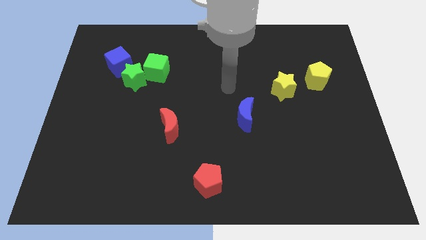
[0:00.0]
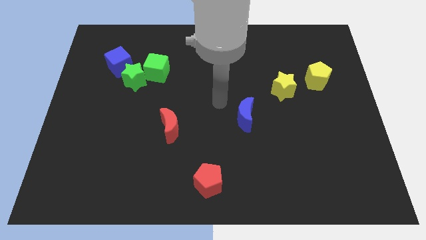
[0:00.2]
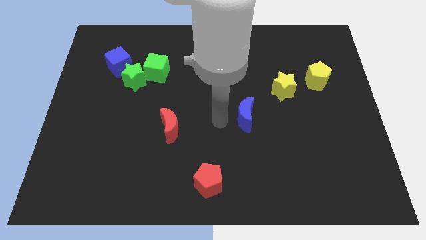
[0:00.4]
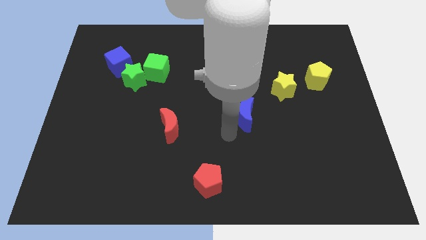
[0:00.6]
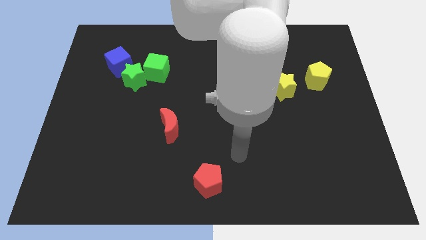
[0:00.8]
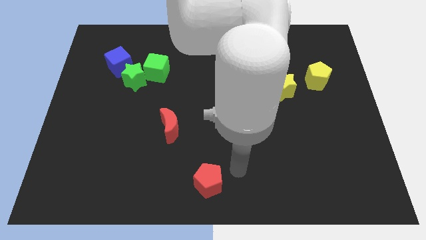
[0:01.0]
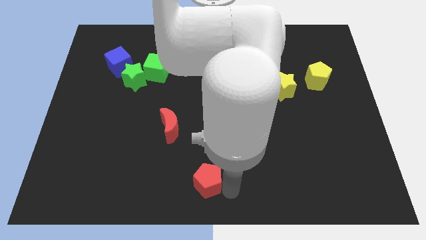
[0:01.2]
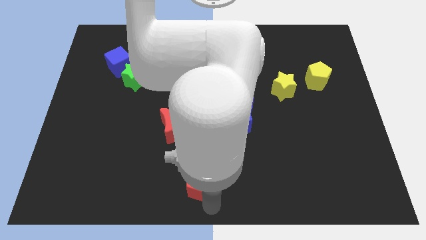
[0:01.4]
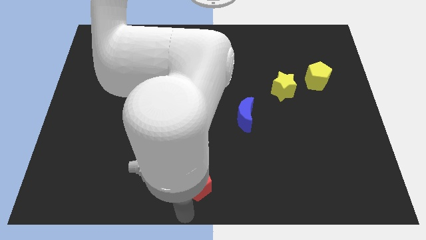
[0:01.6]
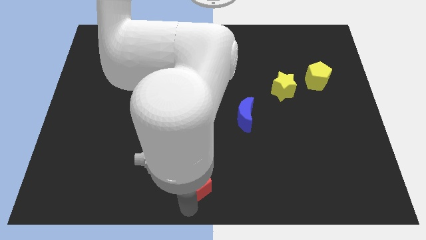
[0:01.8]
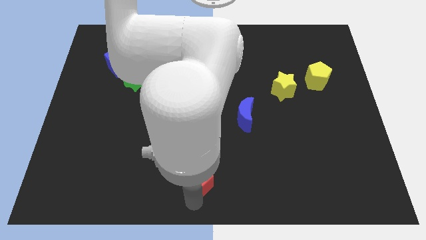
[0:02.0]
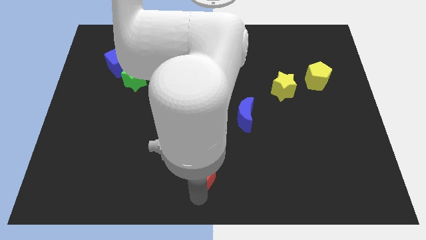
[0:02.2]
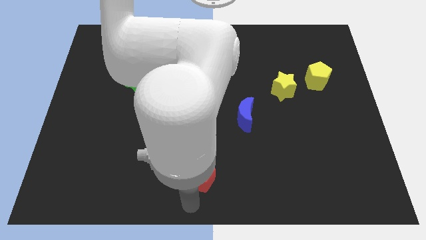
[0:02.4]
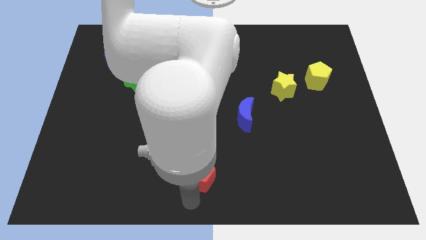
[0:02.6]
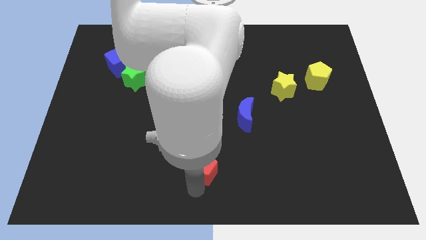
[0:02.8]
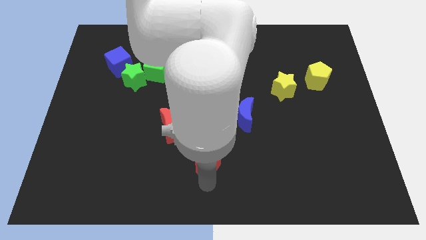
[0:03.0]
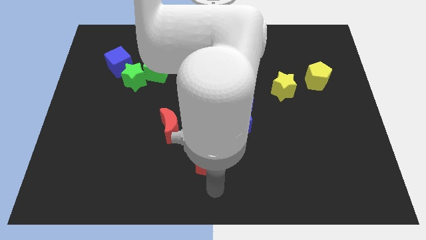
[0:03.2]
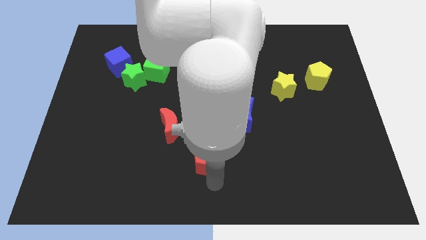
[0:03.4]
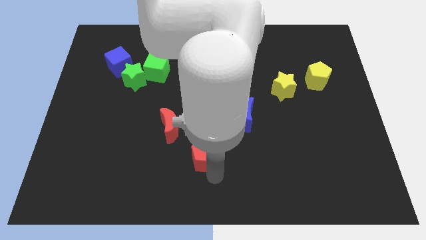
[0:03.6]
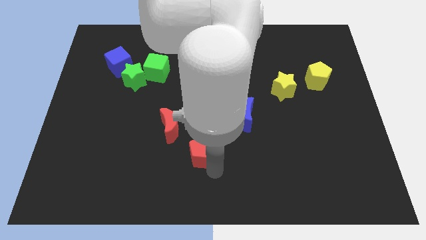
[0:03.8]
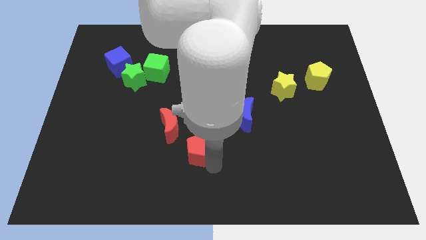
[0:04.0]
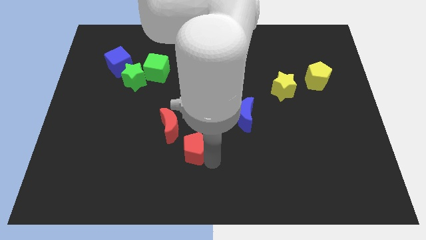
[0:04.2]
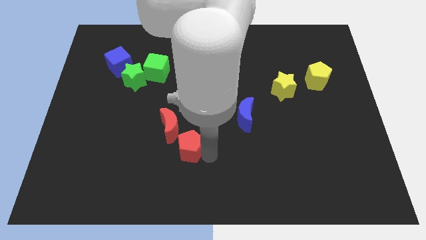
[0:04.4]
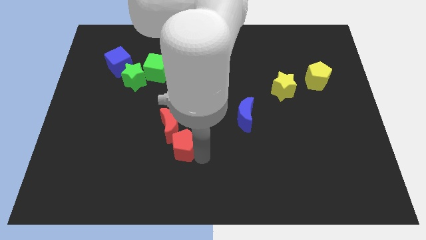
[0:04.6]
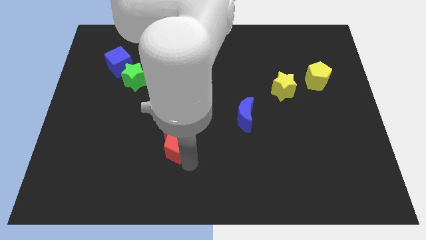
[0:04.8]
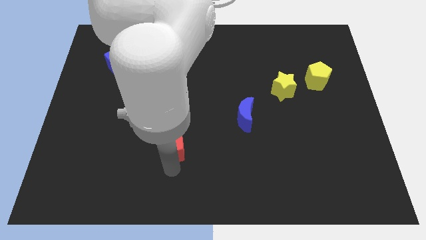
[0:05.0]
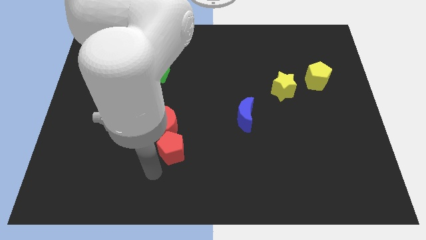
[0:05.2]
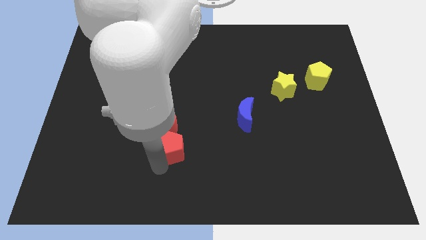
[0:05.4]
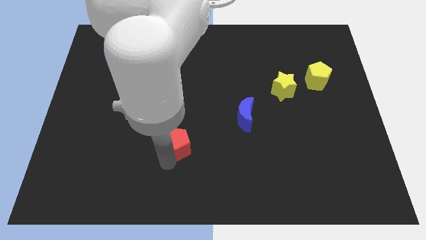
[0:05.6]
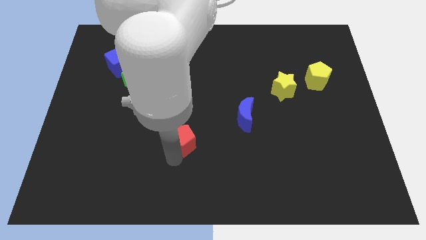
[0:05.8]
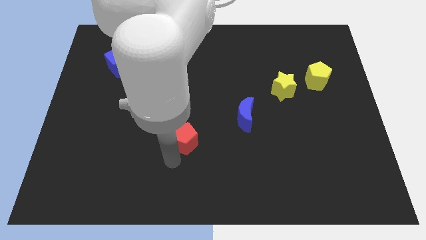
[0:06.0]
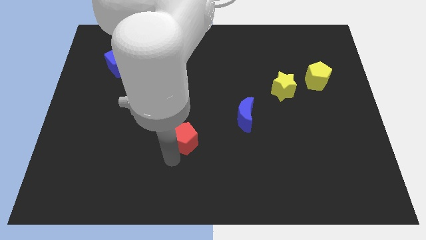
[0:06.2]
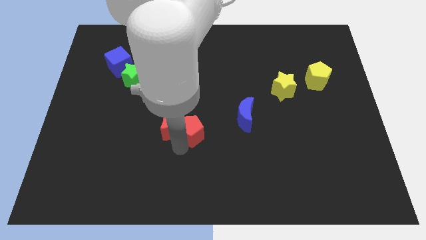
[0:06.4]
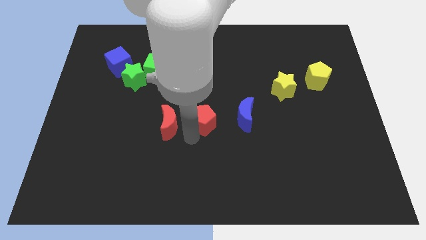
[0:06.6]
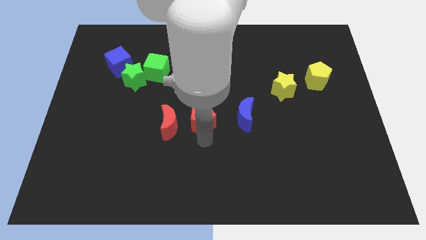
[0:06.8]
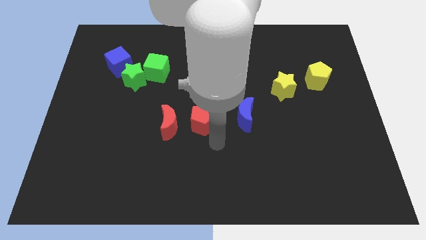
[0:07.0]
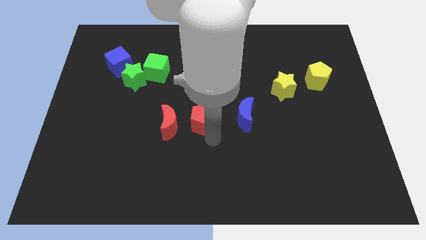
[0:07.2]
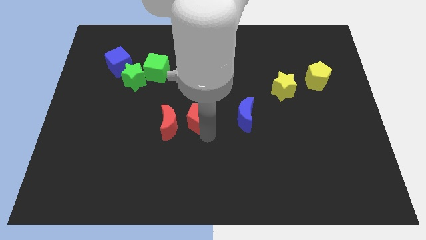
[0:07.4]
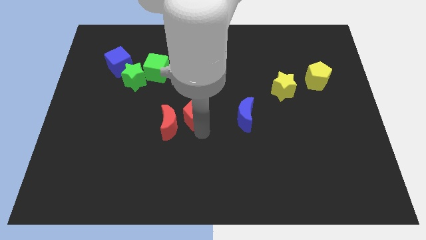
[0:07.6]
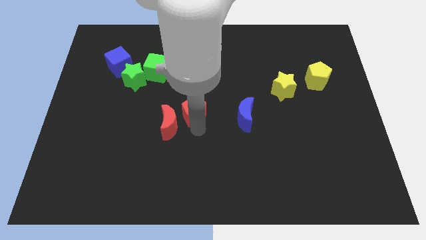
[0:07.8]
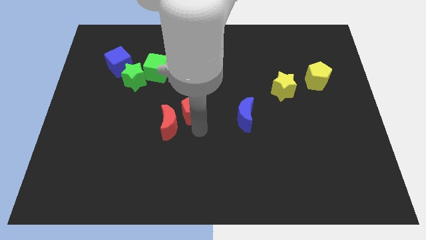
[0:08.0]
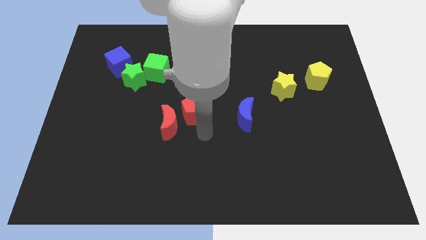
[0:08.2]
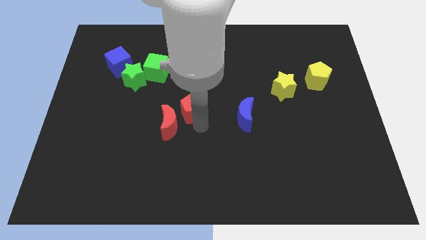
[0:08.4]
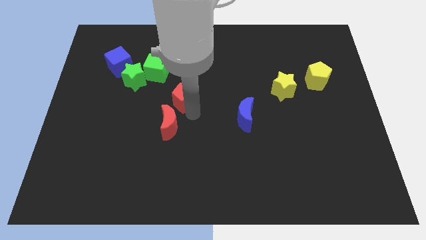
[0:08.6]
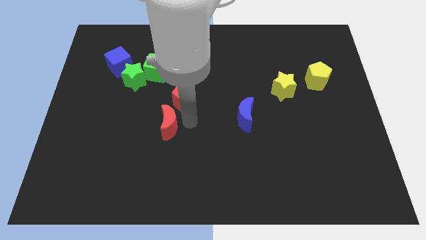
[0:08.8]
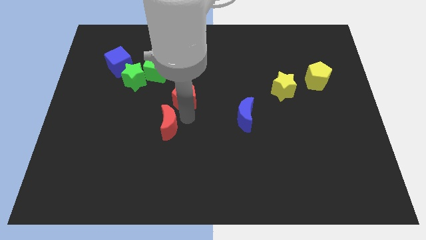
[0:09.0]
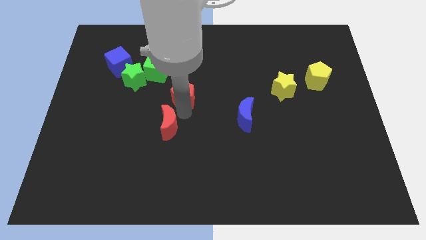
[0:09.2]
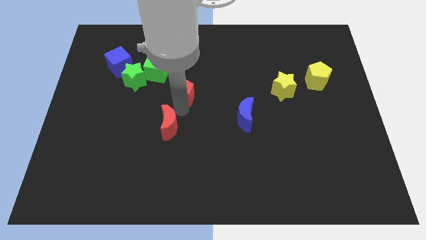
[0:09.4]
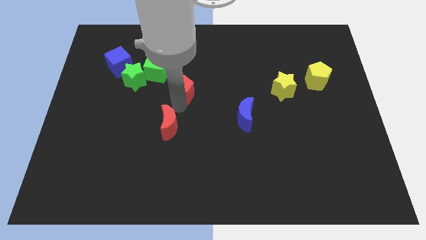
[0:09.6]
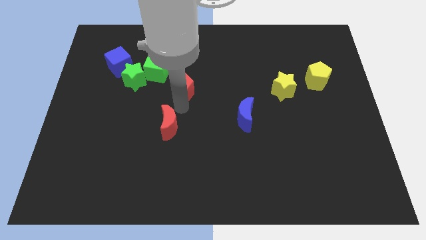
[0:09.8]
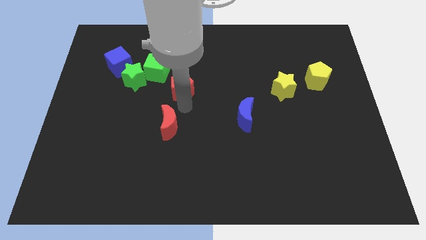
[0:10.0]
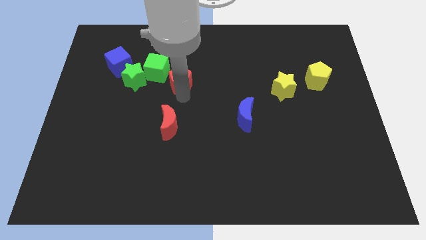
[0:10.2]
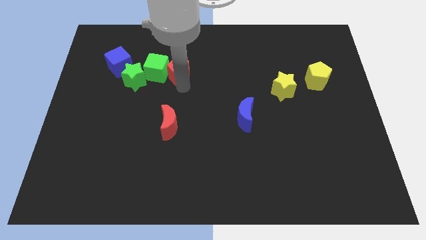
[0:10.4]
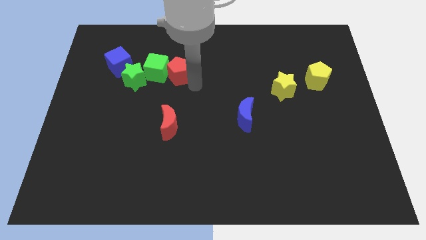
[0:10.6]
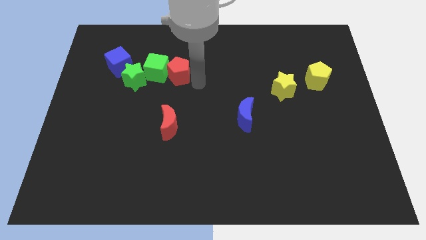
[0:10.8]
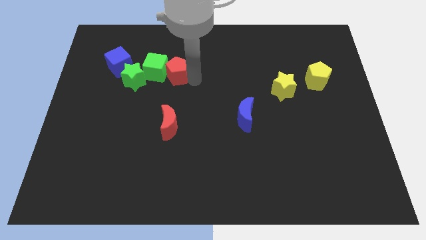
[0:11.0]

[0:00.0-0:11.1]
put the red pentagon just right of the blue cube

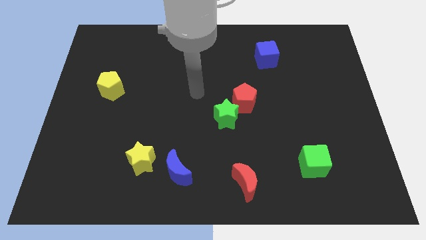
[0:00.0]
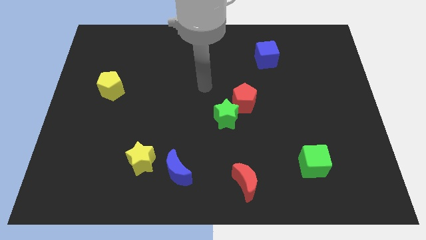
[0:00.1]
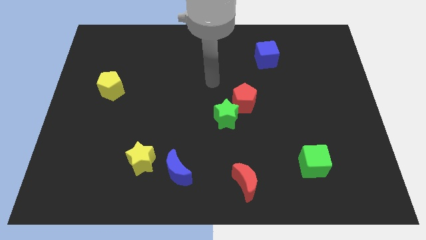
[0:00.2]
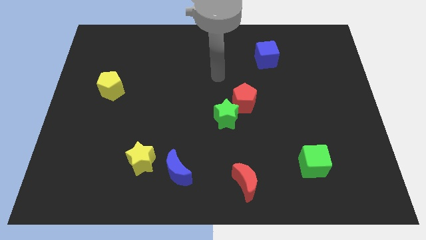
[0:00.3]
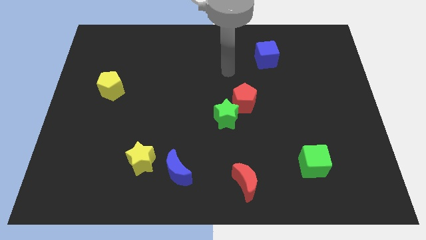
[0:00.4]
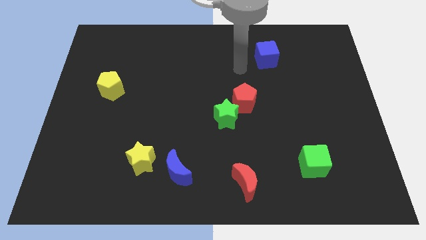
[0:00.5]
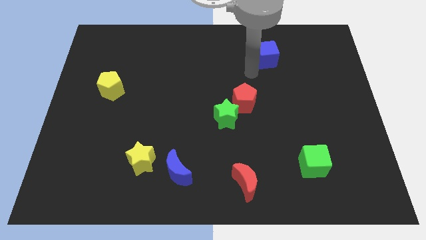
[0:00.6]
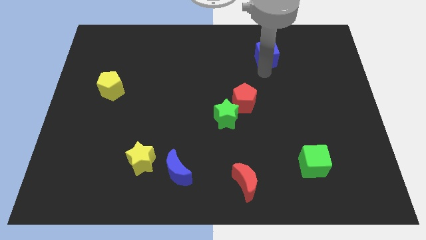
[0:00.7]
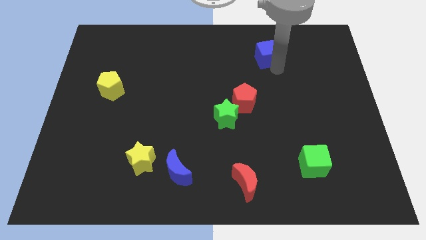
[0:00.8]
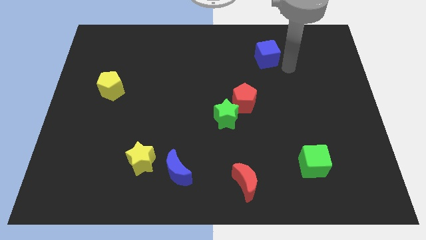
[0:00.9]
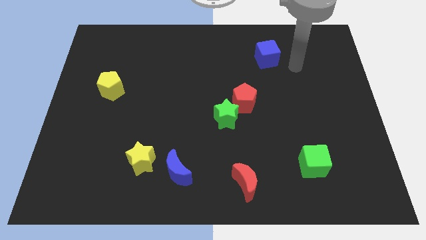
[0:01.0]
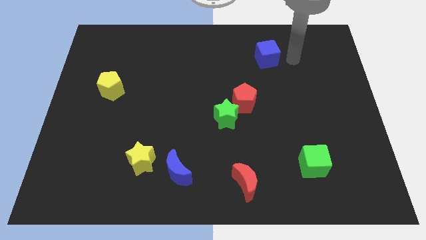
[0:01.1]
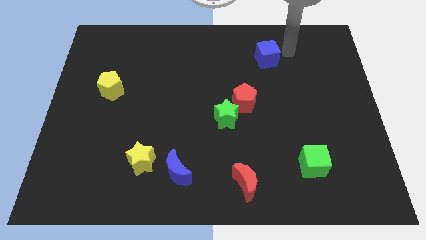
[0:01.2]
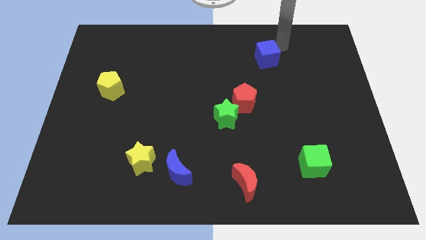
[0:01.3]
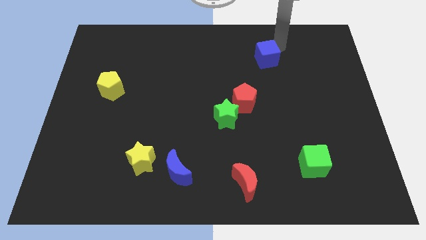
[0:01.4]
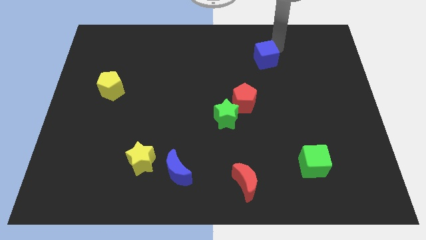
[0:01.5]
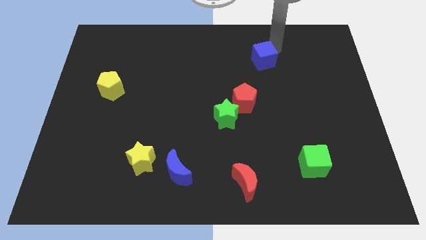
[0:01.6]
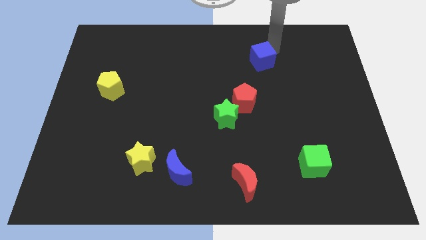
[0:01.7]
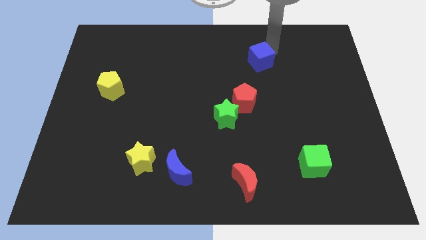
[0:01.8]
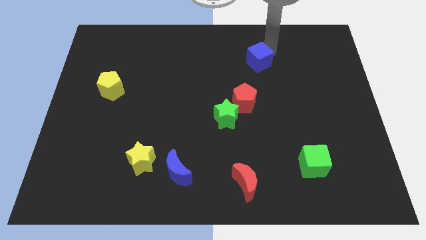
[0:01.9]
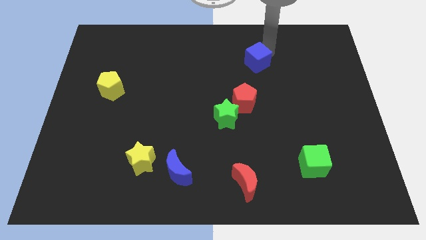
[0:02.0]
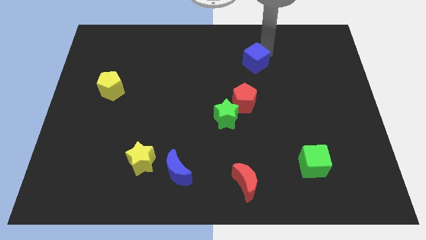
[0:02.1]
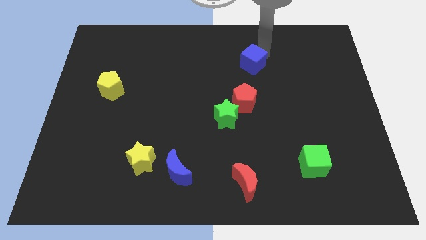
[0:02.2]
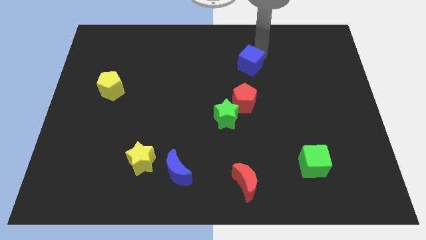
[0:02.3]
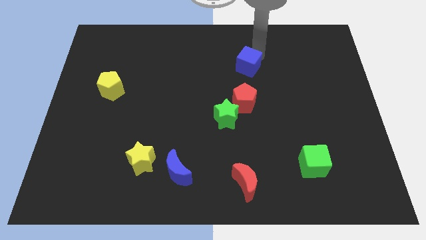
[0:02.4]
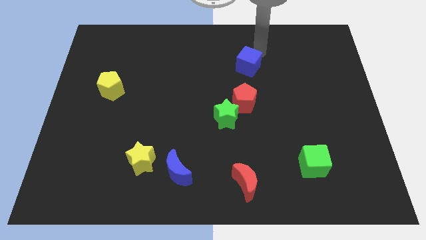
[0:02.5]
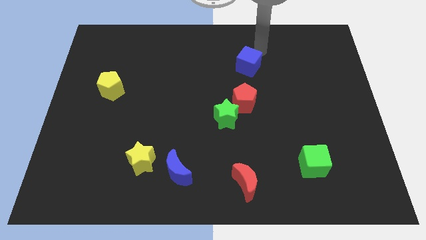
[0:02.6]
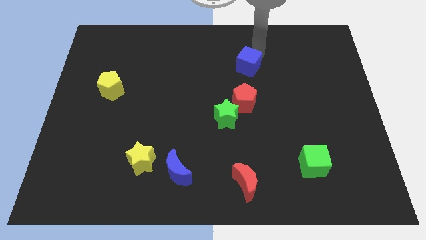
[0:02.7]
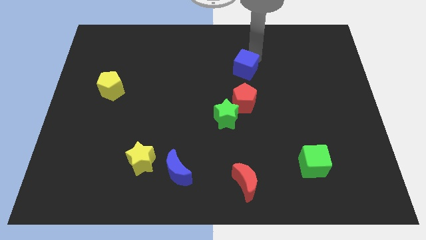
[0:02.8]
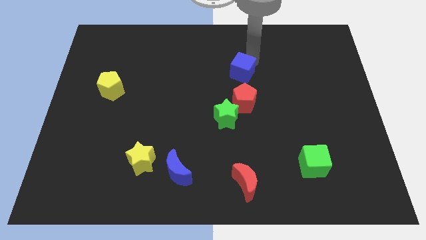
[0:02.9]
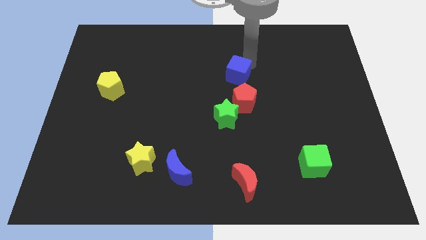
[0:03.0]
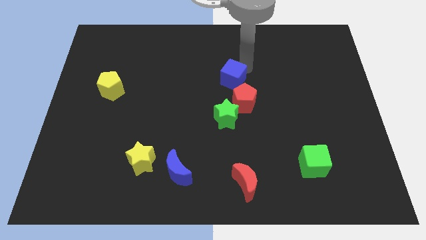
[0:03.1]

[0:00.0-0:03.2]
move the blue cube to the top left of the red pentagon
